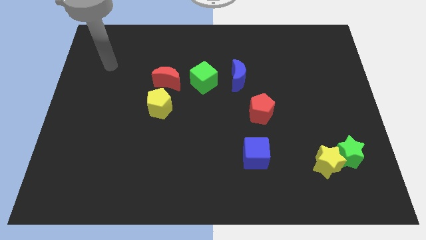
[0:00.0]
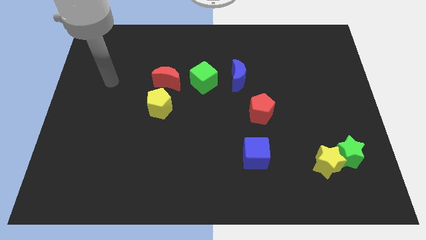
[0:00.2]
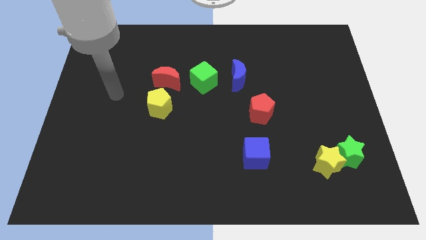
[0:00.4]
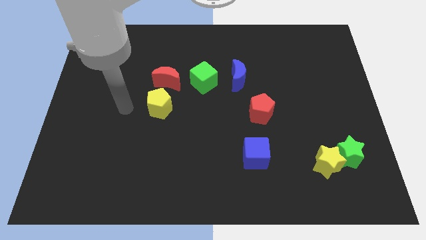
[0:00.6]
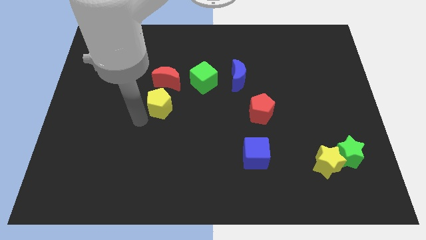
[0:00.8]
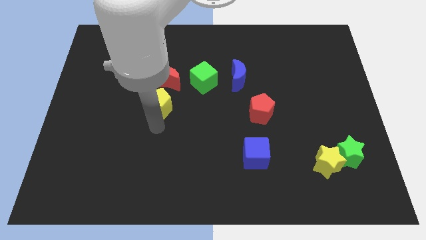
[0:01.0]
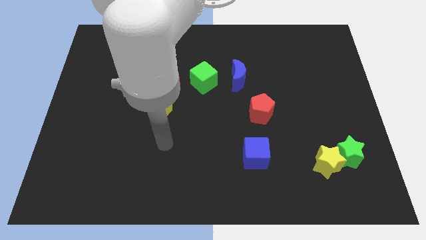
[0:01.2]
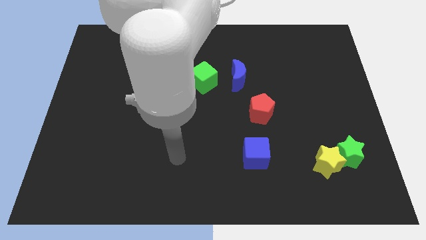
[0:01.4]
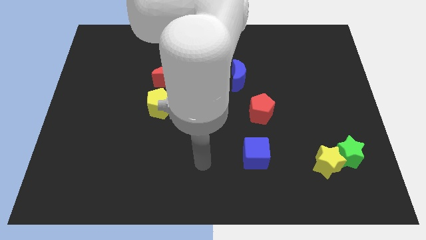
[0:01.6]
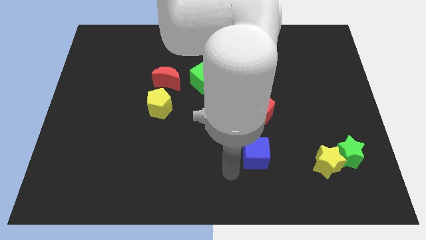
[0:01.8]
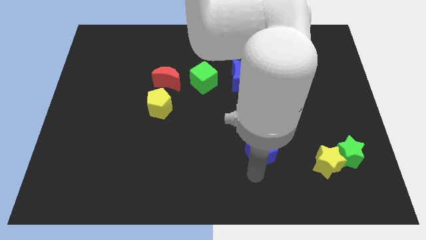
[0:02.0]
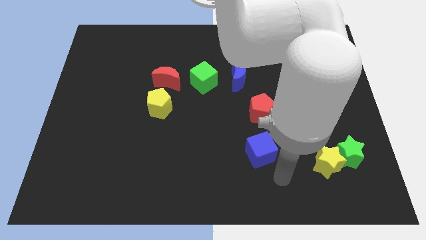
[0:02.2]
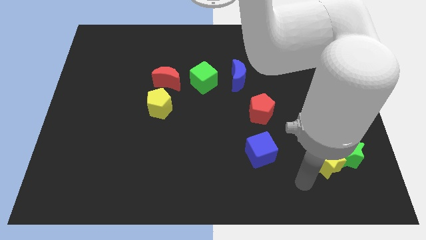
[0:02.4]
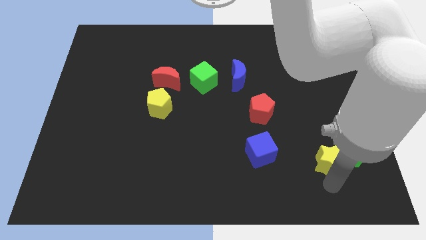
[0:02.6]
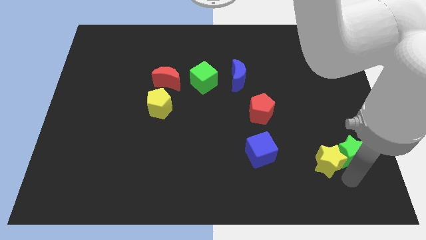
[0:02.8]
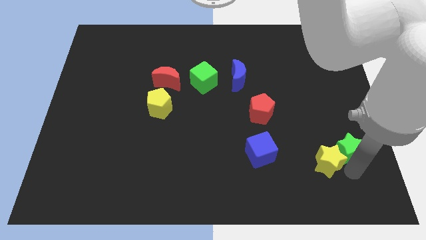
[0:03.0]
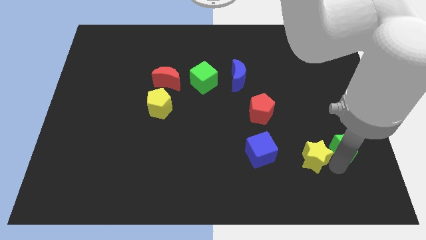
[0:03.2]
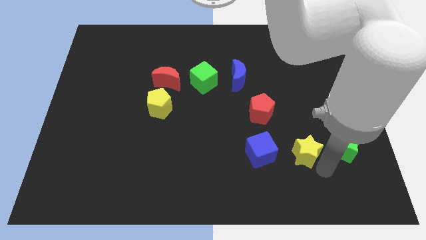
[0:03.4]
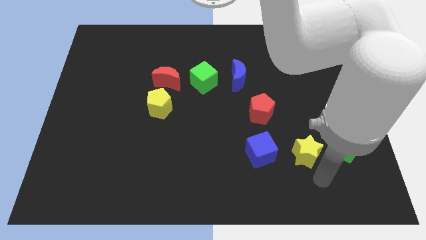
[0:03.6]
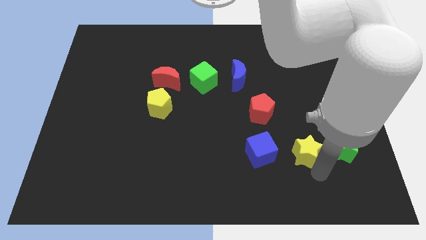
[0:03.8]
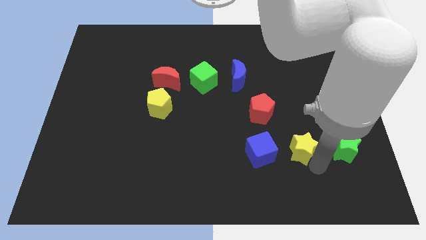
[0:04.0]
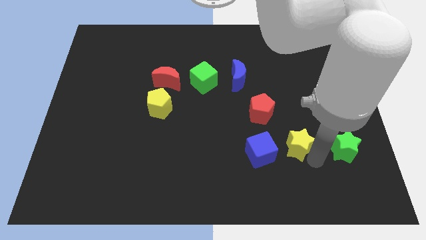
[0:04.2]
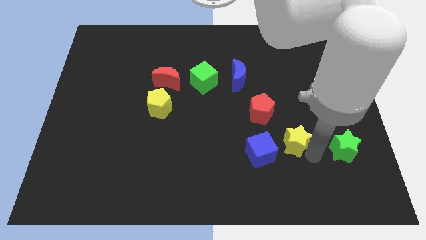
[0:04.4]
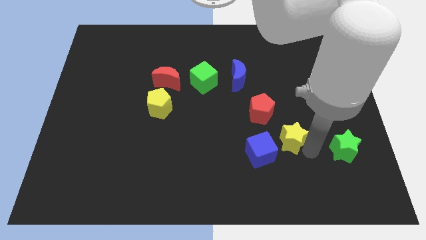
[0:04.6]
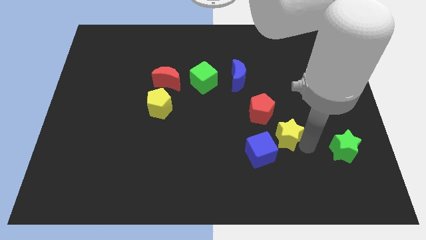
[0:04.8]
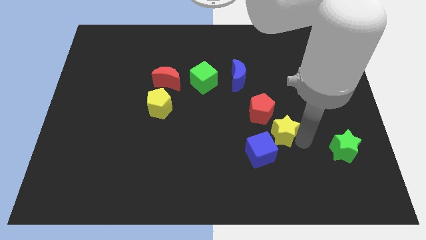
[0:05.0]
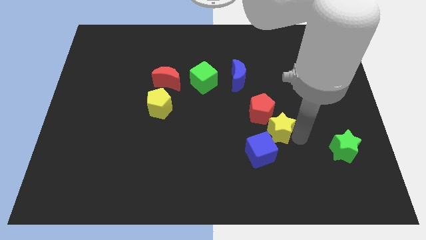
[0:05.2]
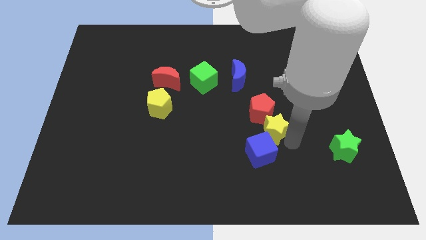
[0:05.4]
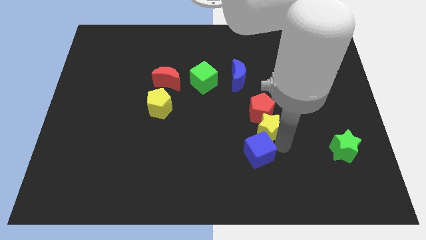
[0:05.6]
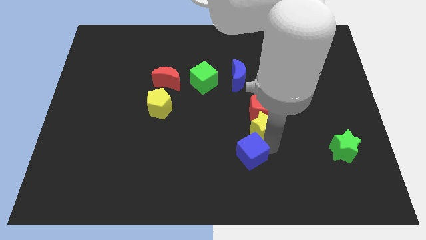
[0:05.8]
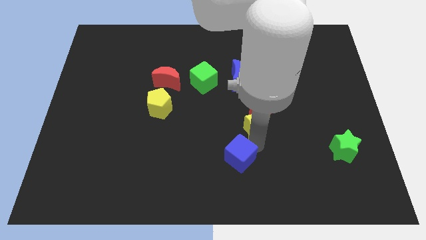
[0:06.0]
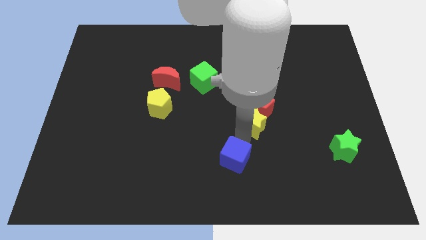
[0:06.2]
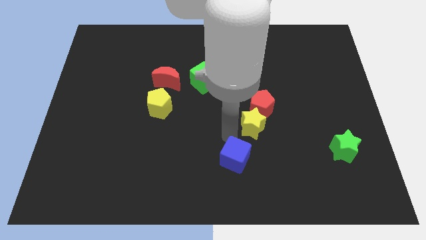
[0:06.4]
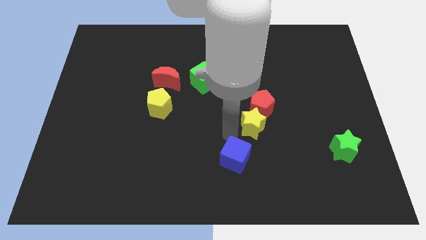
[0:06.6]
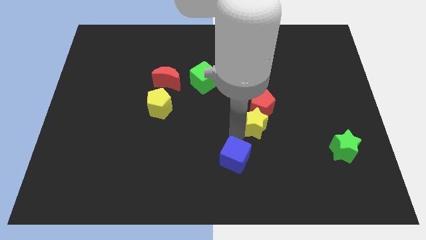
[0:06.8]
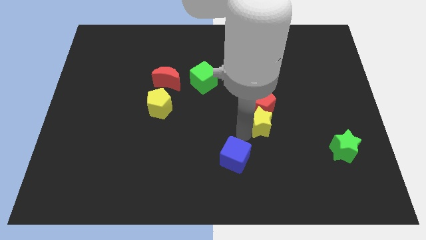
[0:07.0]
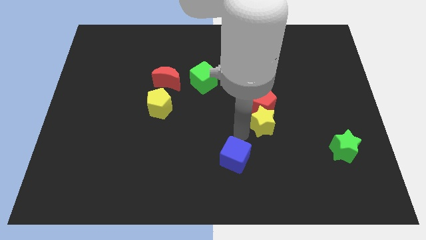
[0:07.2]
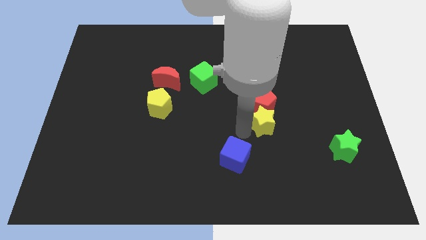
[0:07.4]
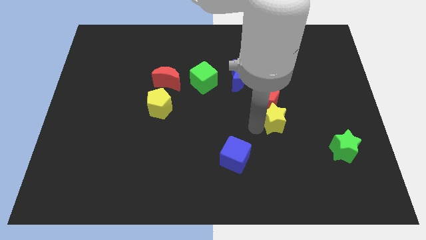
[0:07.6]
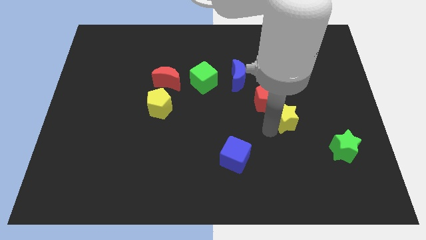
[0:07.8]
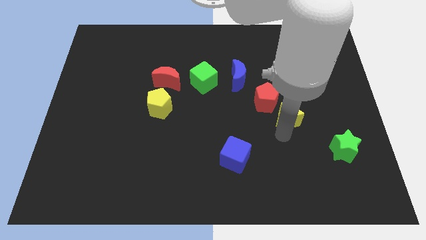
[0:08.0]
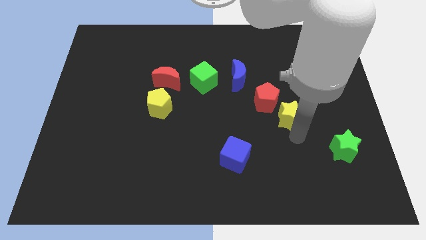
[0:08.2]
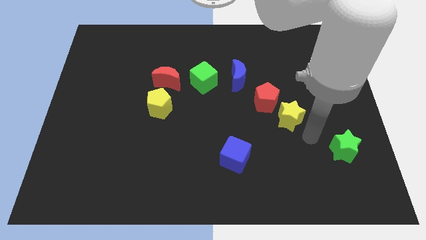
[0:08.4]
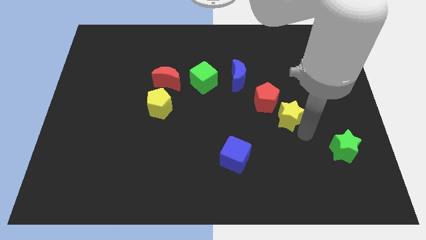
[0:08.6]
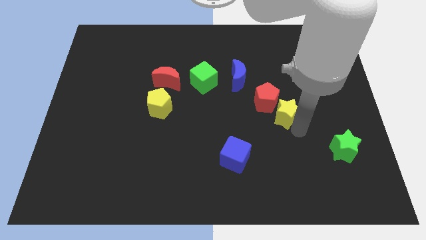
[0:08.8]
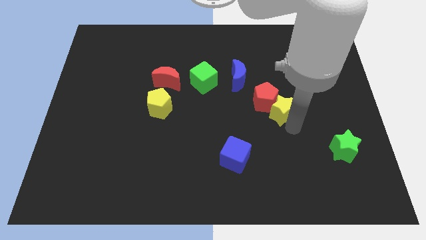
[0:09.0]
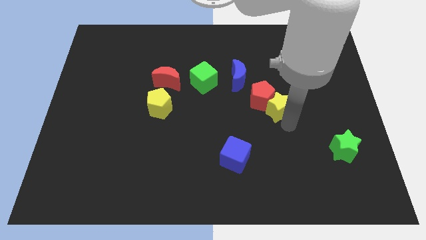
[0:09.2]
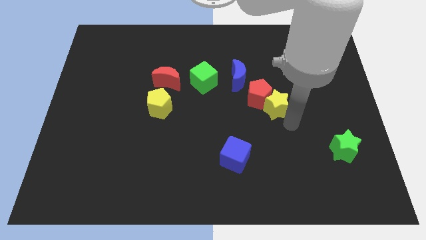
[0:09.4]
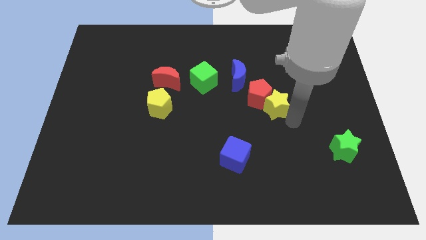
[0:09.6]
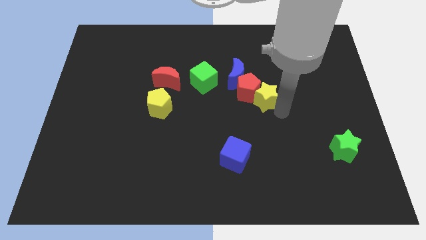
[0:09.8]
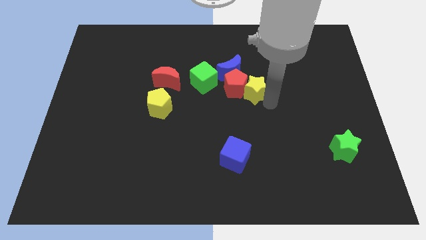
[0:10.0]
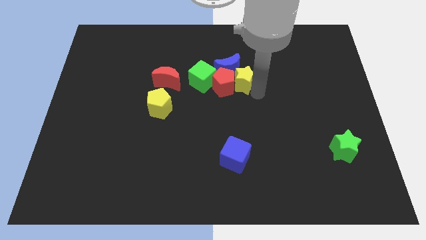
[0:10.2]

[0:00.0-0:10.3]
put the yellow star to the blue moon

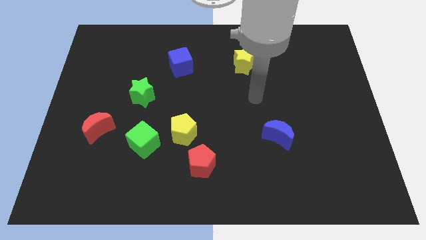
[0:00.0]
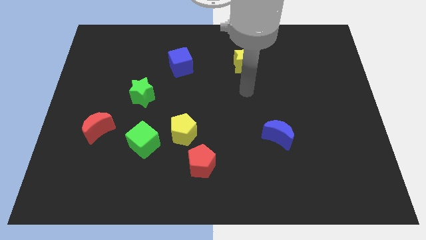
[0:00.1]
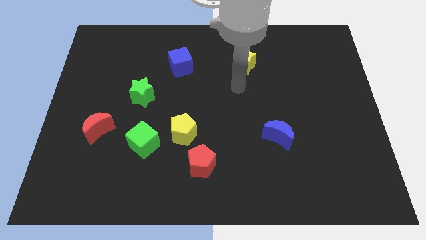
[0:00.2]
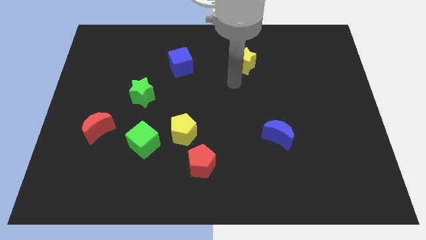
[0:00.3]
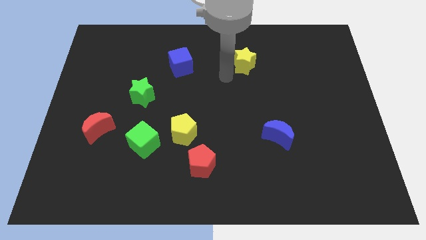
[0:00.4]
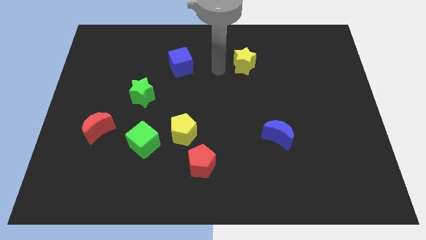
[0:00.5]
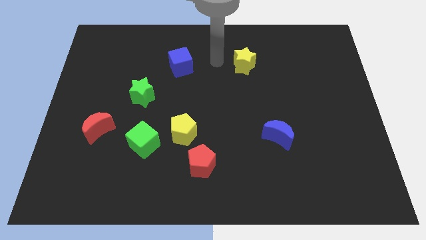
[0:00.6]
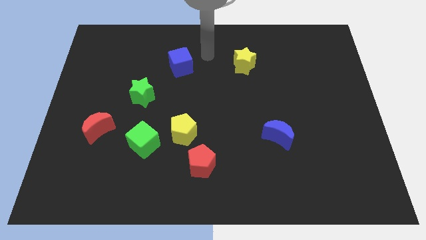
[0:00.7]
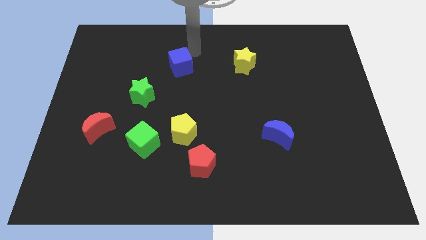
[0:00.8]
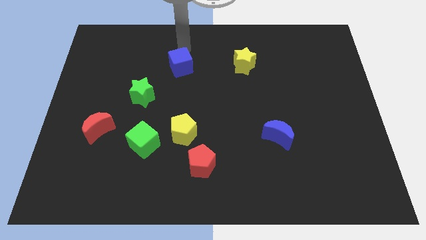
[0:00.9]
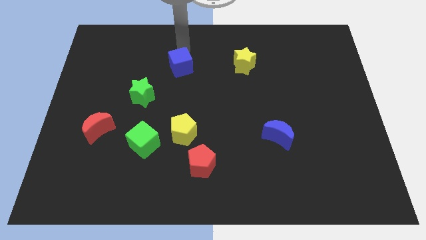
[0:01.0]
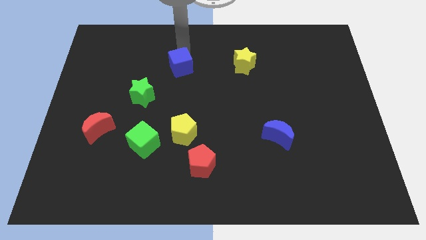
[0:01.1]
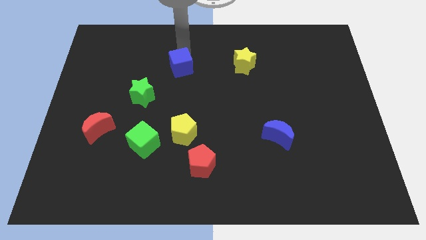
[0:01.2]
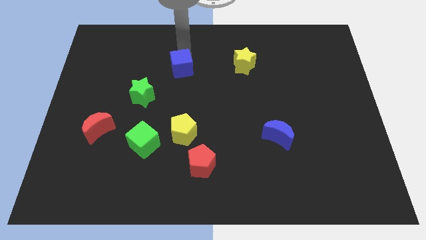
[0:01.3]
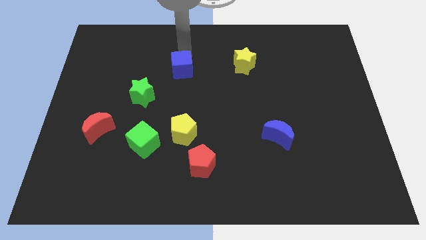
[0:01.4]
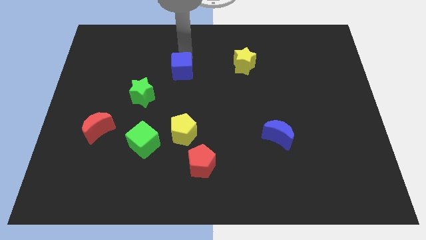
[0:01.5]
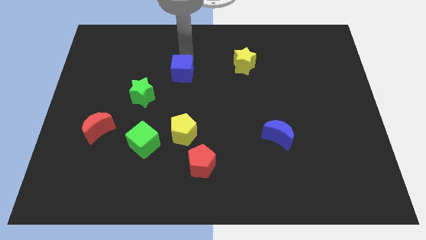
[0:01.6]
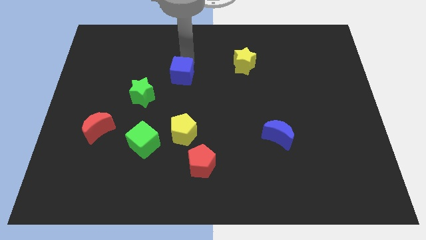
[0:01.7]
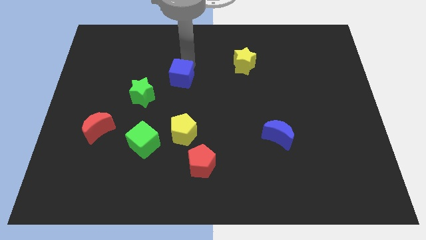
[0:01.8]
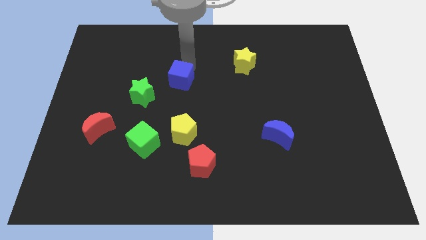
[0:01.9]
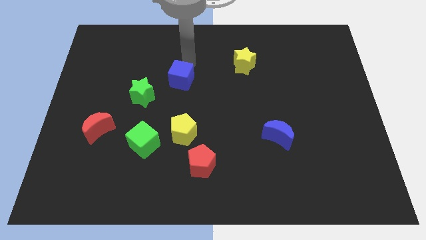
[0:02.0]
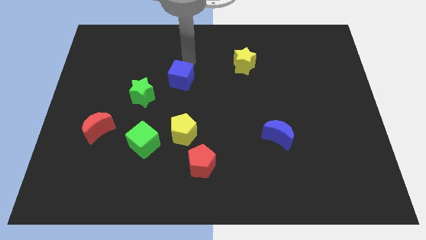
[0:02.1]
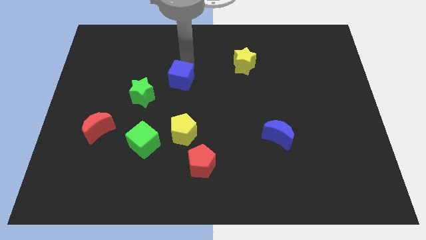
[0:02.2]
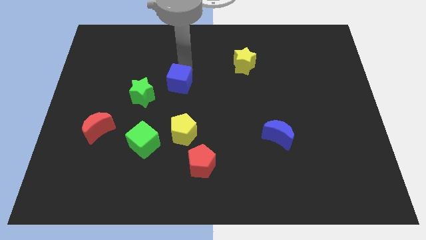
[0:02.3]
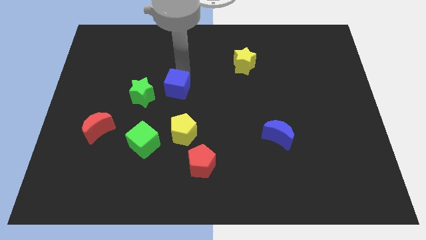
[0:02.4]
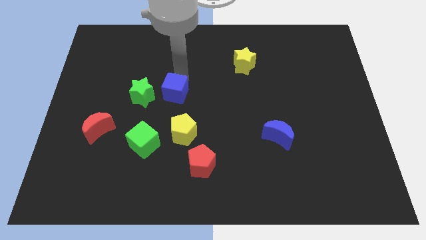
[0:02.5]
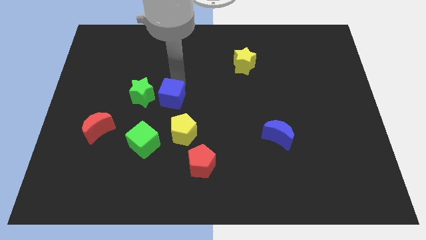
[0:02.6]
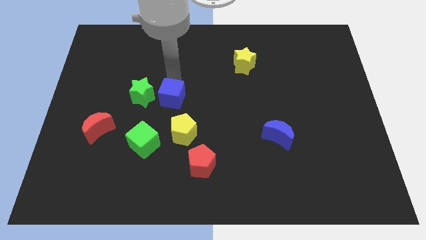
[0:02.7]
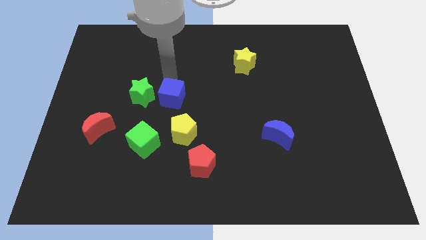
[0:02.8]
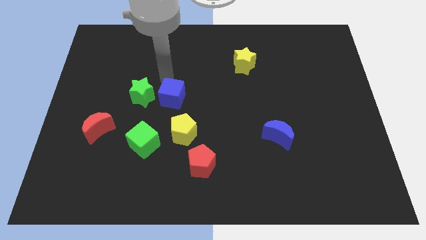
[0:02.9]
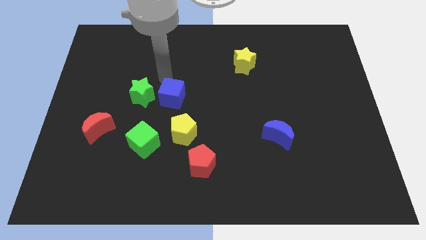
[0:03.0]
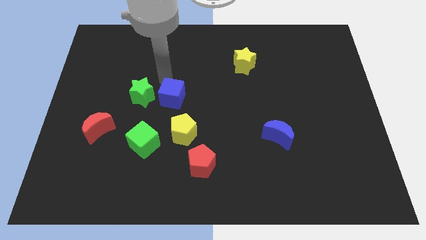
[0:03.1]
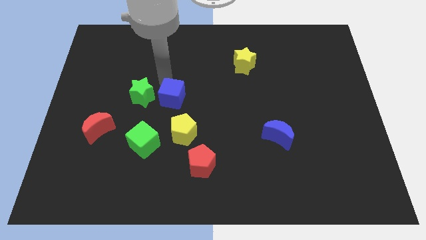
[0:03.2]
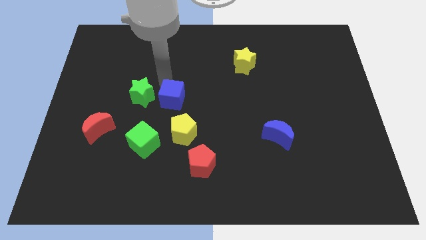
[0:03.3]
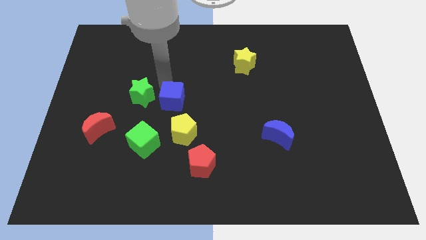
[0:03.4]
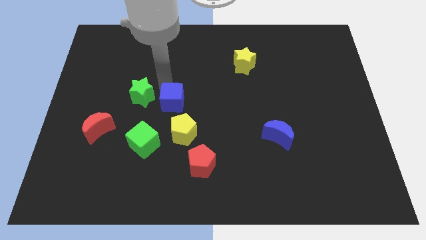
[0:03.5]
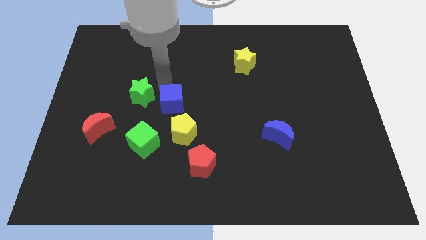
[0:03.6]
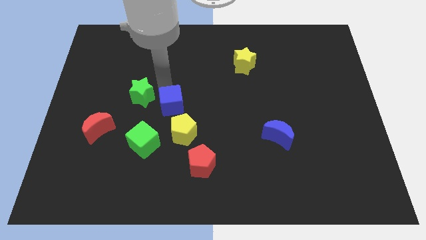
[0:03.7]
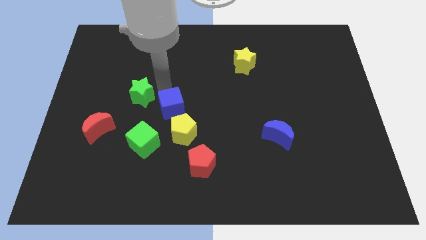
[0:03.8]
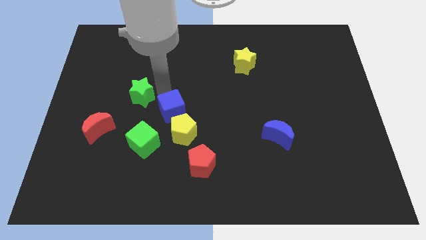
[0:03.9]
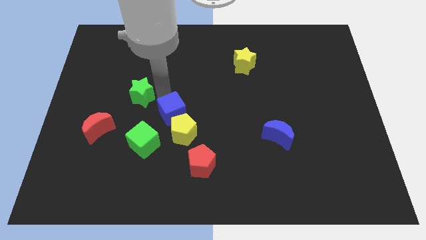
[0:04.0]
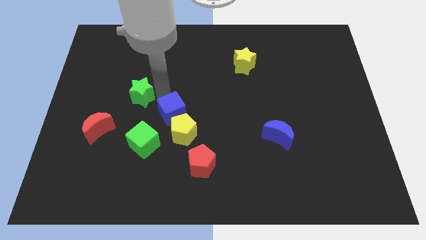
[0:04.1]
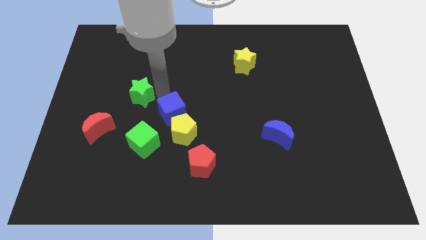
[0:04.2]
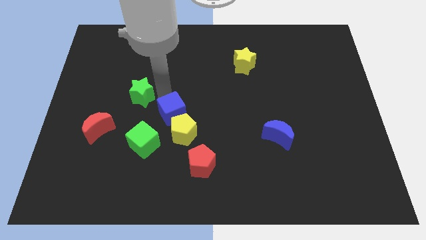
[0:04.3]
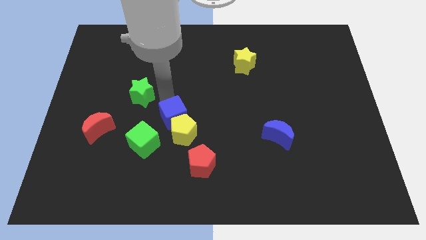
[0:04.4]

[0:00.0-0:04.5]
push the blue cube to the yellow pentagon
